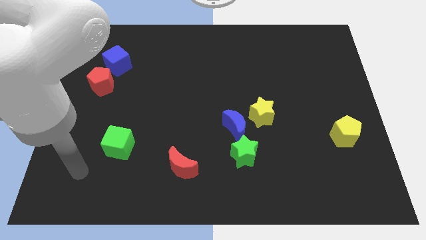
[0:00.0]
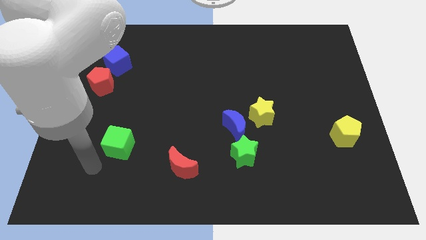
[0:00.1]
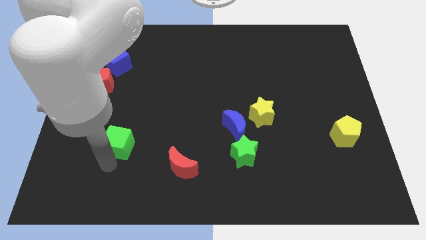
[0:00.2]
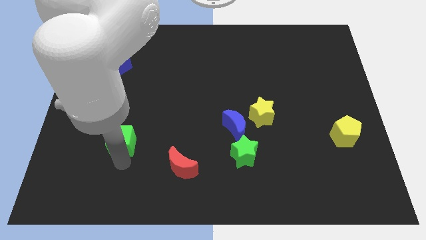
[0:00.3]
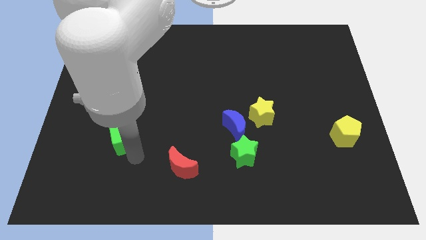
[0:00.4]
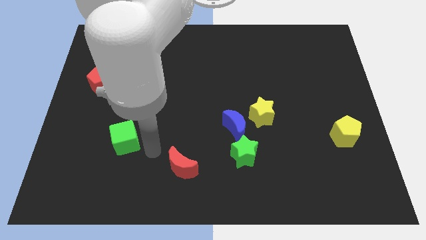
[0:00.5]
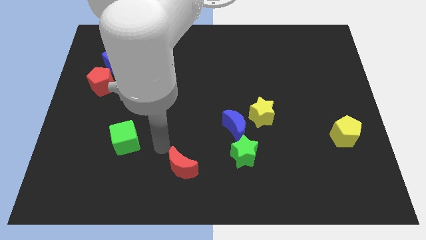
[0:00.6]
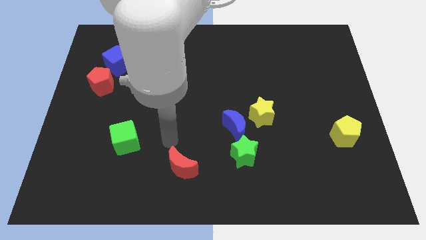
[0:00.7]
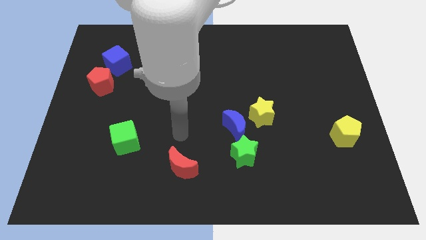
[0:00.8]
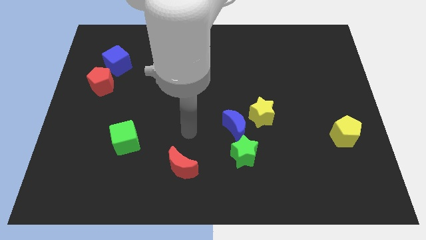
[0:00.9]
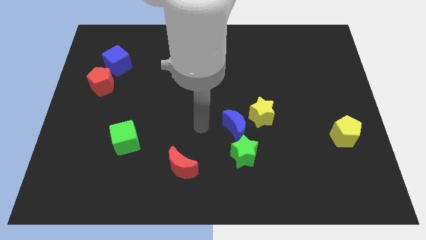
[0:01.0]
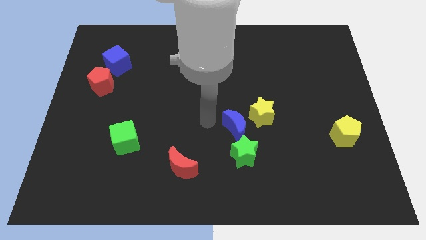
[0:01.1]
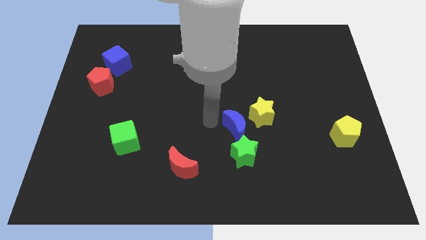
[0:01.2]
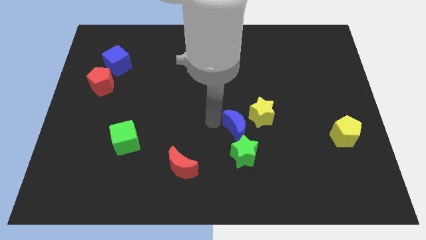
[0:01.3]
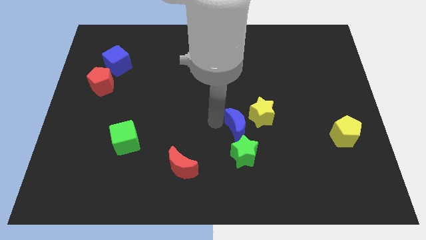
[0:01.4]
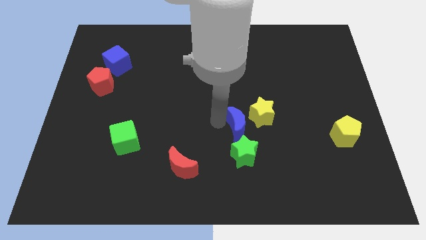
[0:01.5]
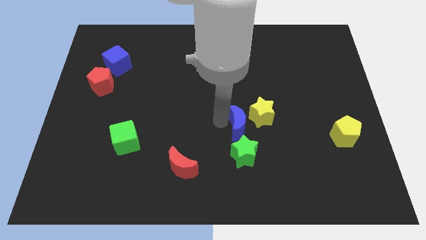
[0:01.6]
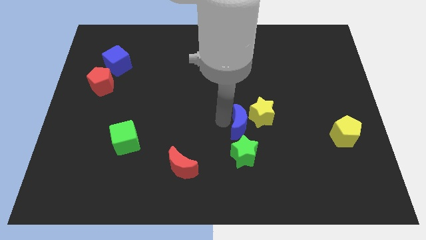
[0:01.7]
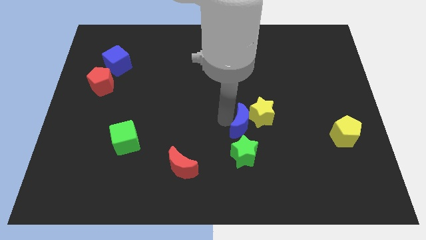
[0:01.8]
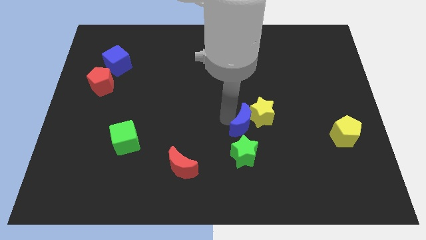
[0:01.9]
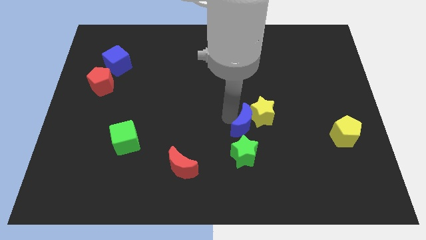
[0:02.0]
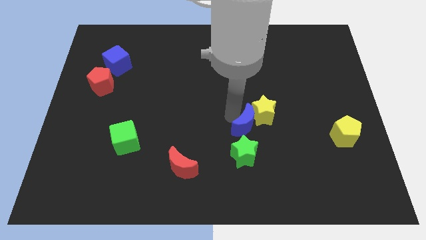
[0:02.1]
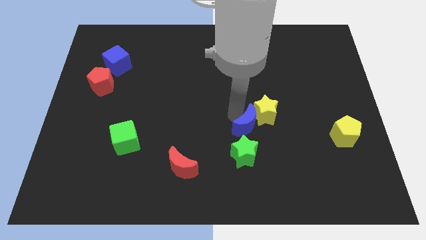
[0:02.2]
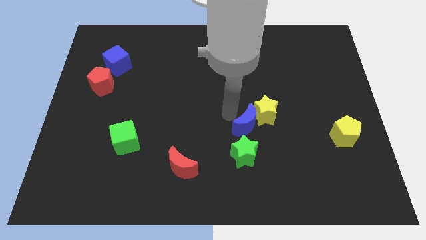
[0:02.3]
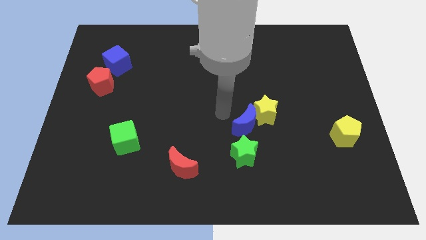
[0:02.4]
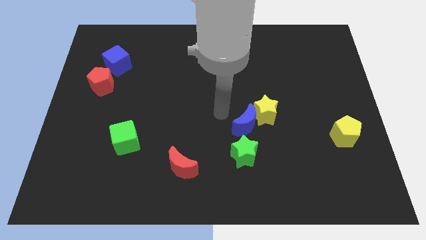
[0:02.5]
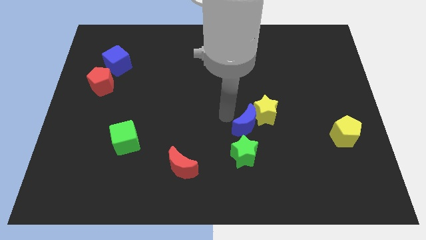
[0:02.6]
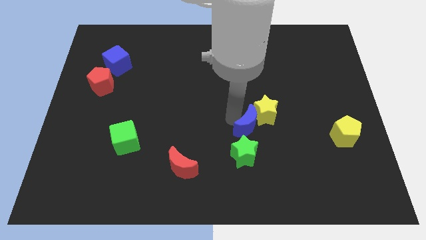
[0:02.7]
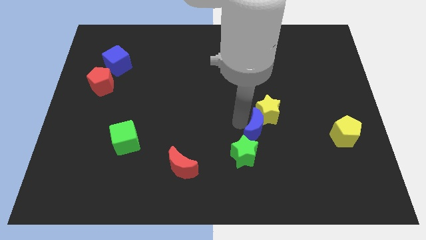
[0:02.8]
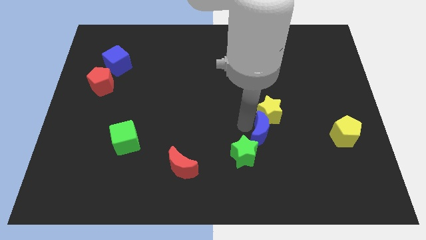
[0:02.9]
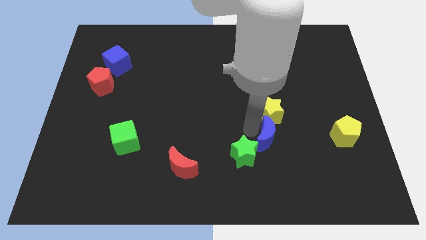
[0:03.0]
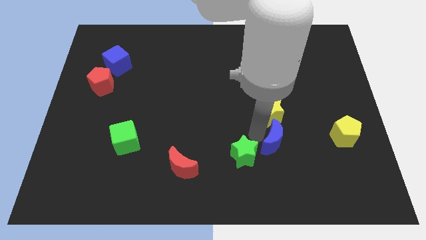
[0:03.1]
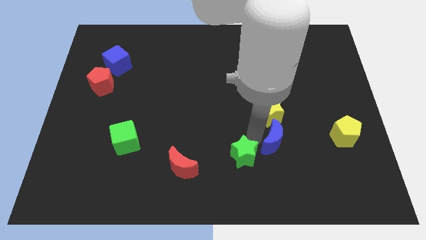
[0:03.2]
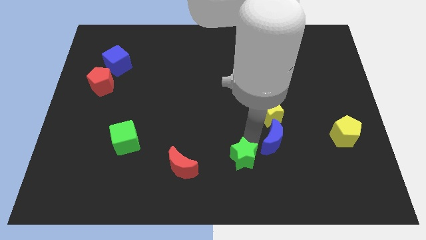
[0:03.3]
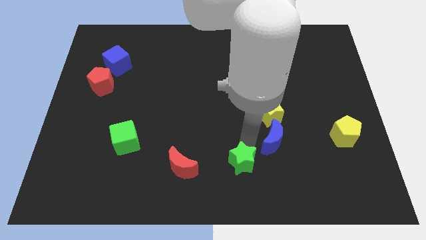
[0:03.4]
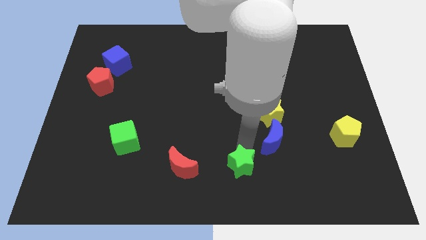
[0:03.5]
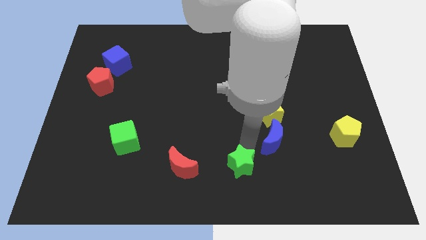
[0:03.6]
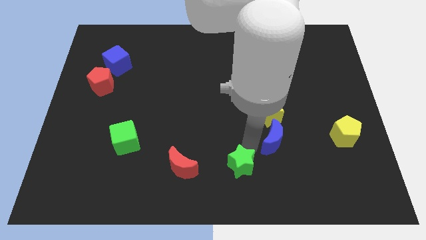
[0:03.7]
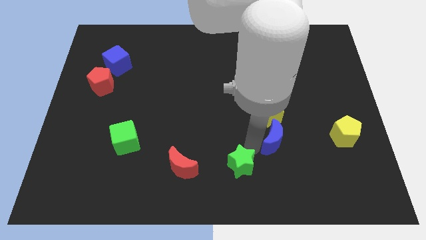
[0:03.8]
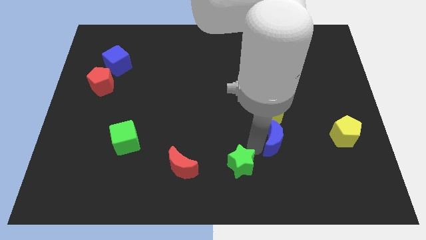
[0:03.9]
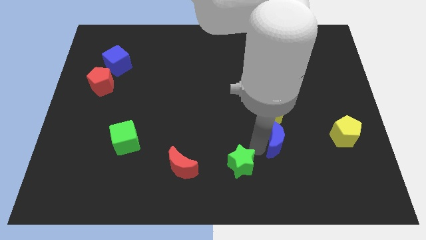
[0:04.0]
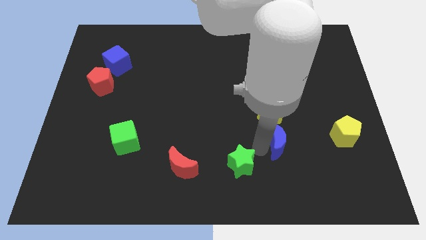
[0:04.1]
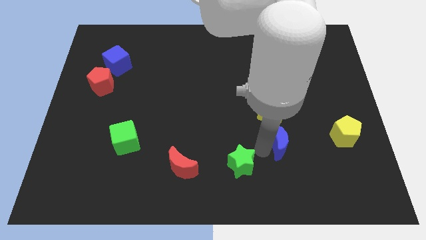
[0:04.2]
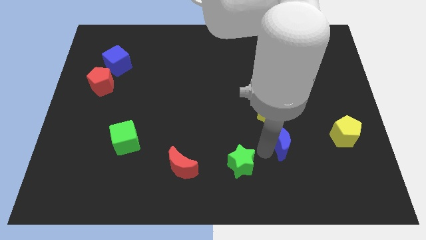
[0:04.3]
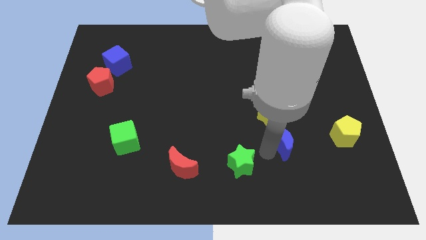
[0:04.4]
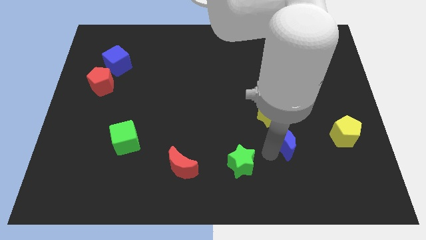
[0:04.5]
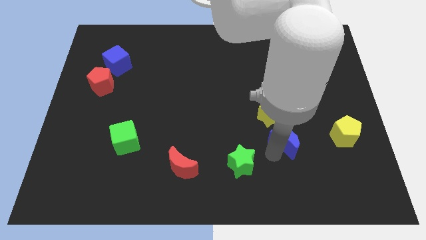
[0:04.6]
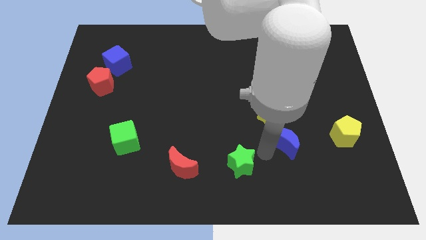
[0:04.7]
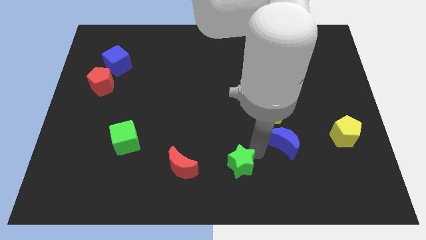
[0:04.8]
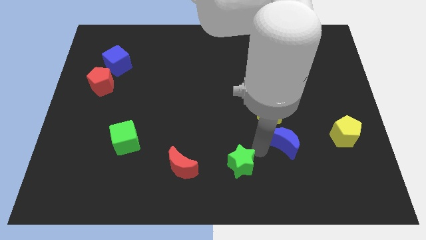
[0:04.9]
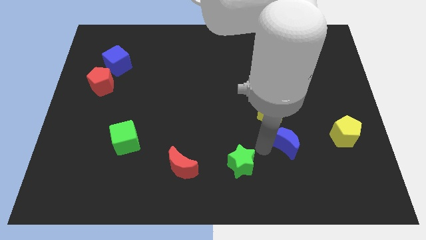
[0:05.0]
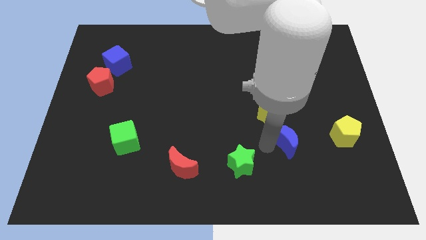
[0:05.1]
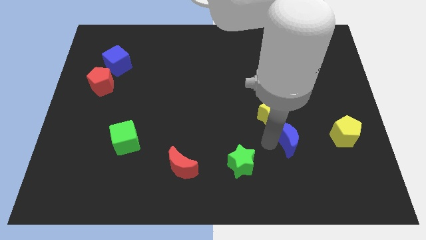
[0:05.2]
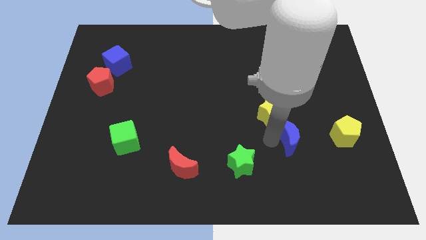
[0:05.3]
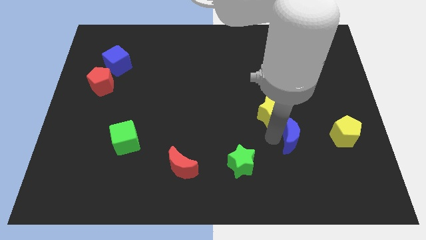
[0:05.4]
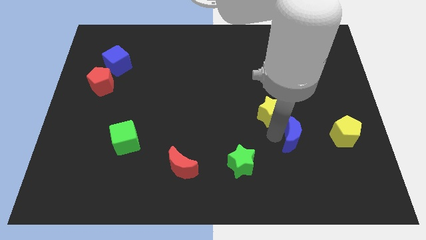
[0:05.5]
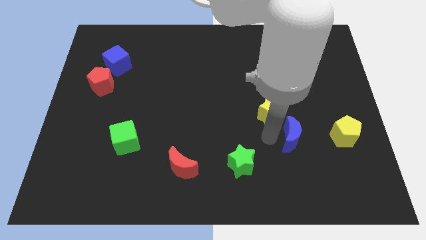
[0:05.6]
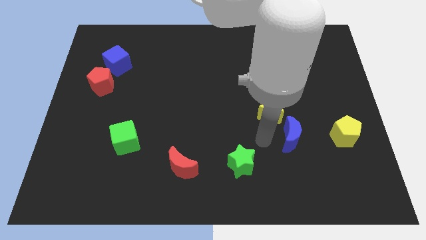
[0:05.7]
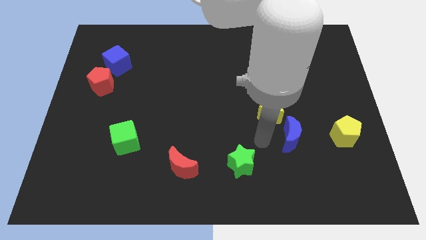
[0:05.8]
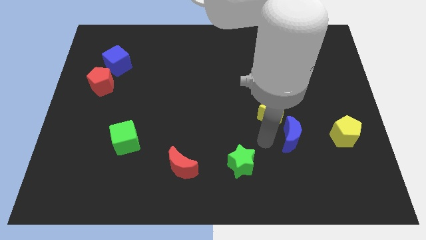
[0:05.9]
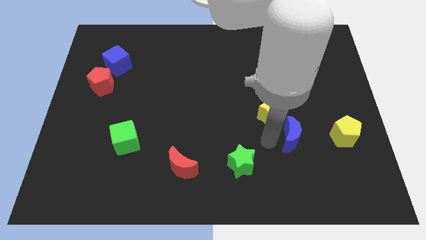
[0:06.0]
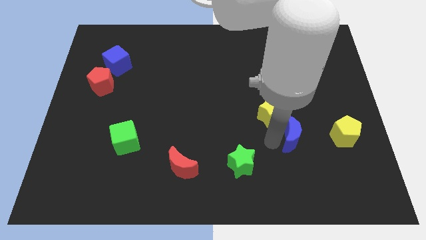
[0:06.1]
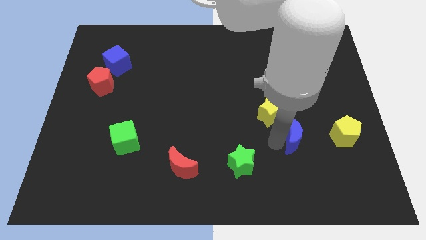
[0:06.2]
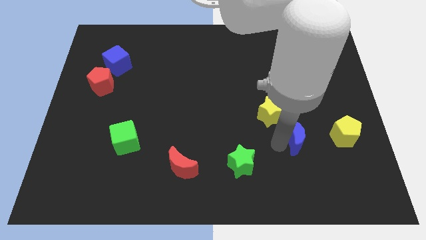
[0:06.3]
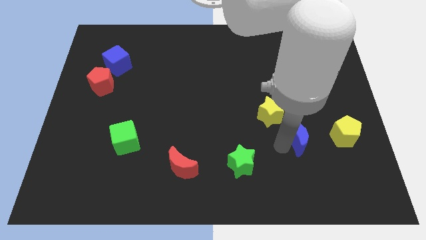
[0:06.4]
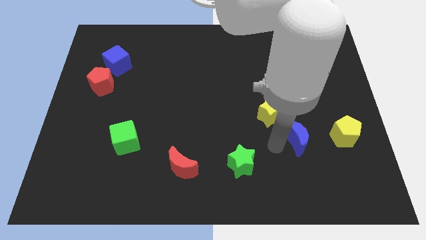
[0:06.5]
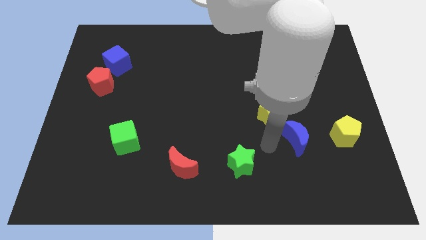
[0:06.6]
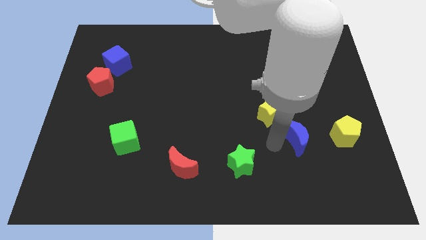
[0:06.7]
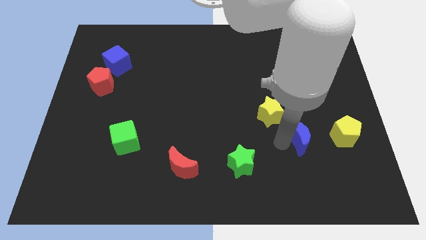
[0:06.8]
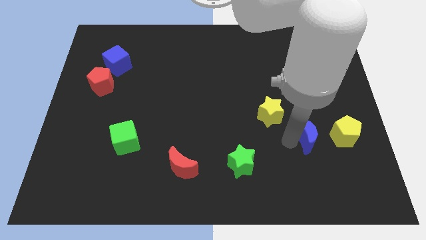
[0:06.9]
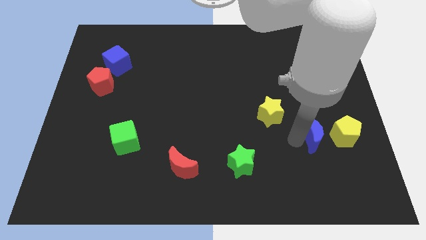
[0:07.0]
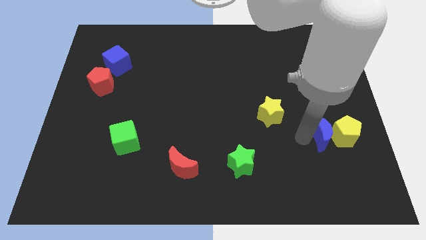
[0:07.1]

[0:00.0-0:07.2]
move the blue moon towards the yellow pentagon
